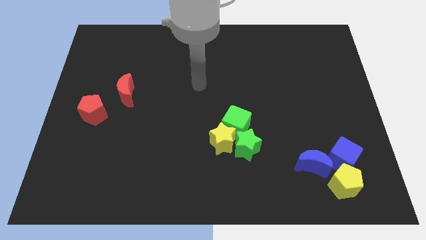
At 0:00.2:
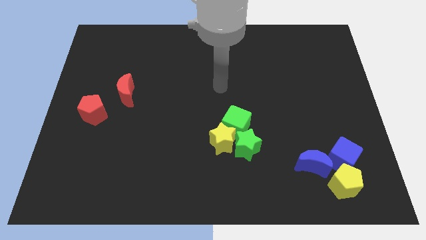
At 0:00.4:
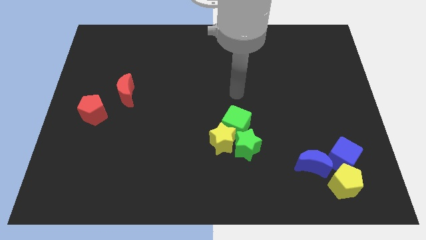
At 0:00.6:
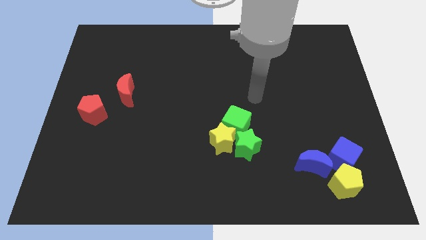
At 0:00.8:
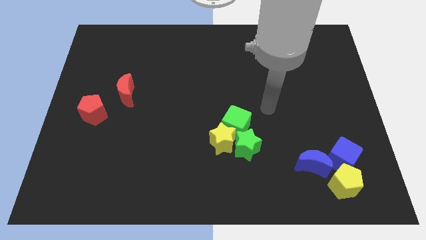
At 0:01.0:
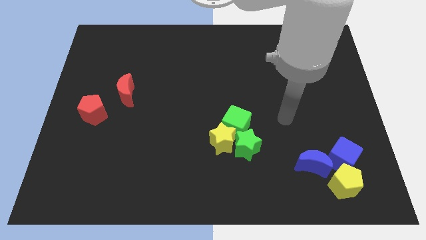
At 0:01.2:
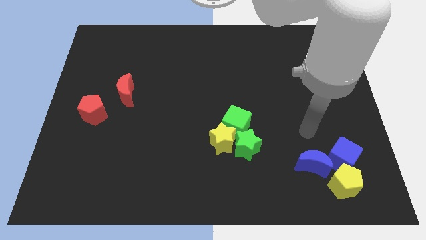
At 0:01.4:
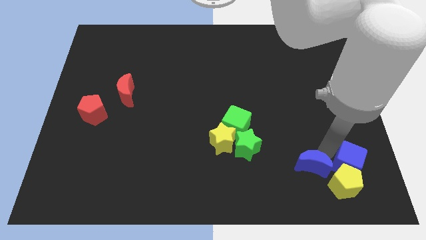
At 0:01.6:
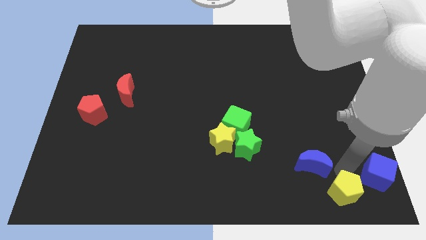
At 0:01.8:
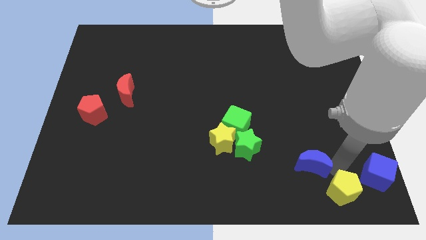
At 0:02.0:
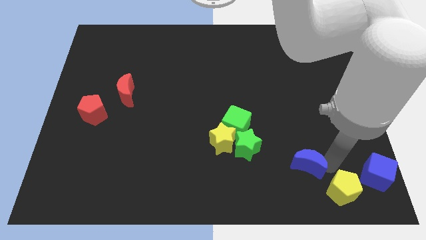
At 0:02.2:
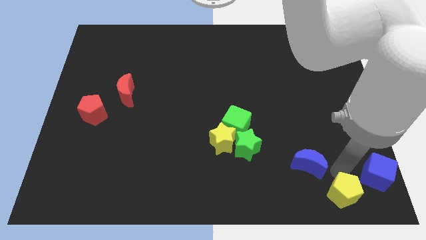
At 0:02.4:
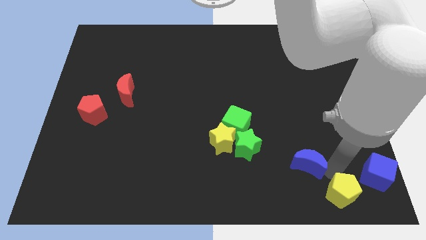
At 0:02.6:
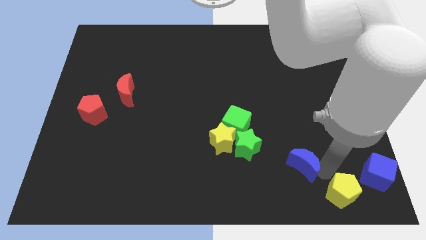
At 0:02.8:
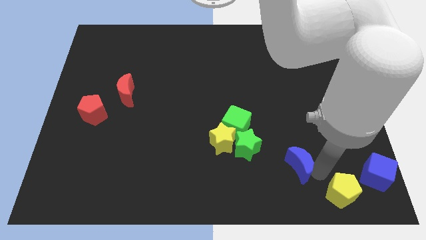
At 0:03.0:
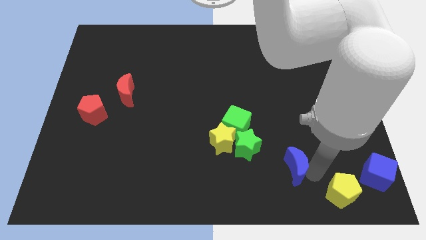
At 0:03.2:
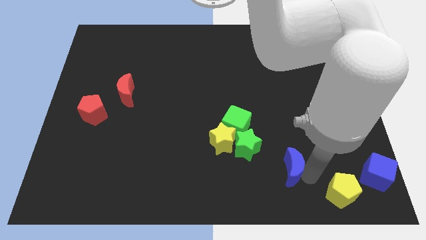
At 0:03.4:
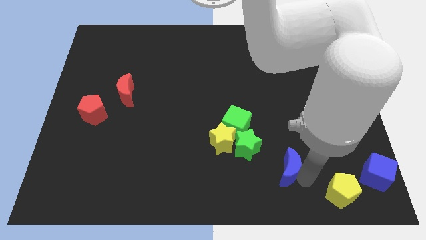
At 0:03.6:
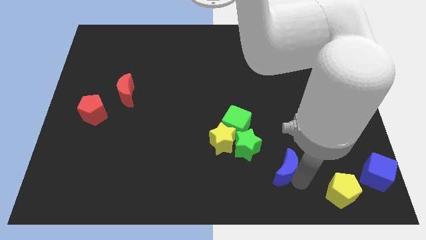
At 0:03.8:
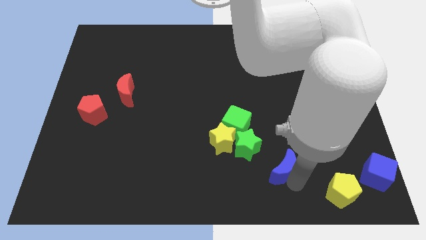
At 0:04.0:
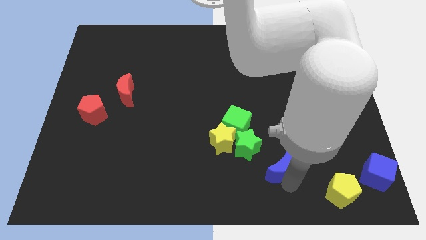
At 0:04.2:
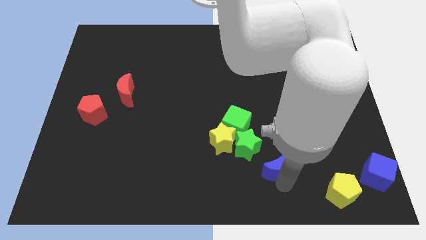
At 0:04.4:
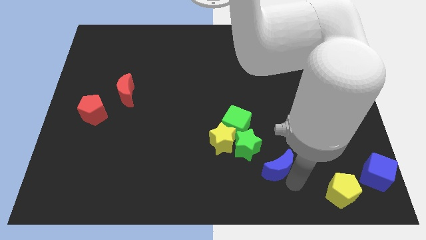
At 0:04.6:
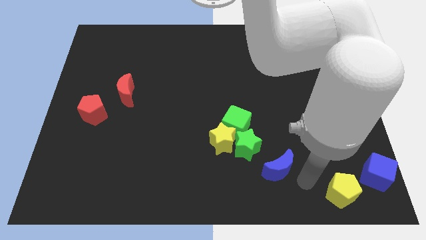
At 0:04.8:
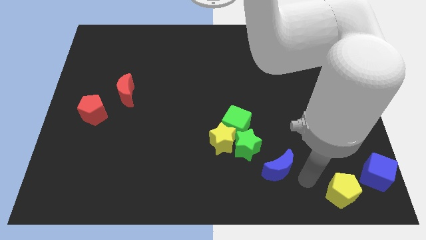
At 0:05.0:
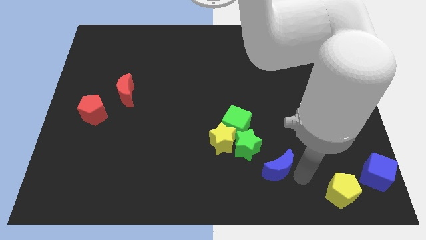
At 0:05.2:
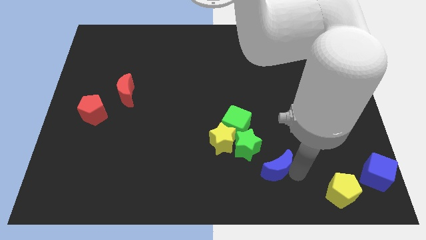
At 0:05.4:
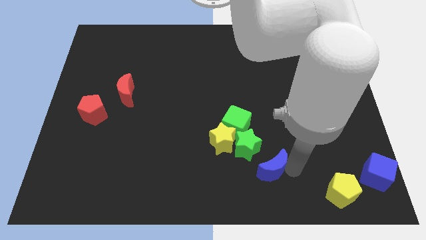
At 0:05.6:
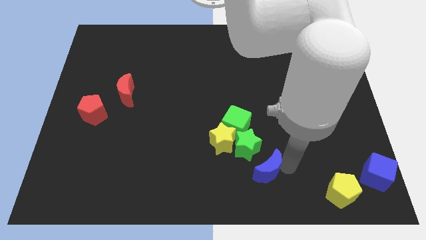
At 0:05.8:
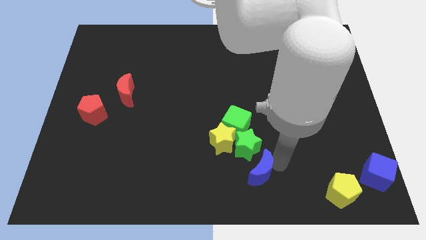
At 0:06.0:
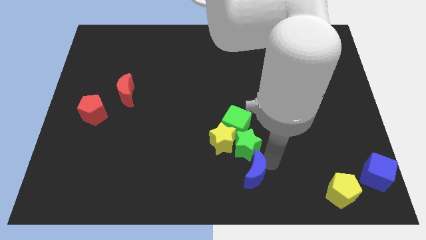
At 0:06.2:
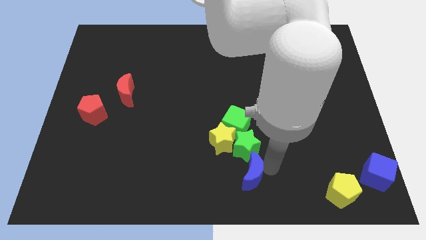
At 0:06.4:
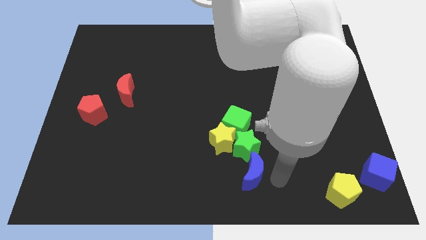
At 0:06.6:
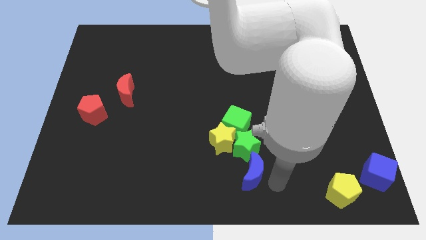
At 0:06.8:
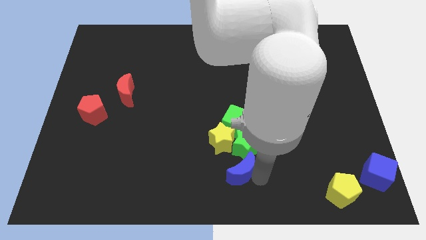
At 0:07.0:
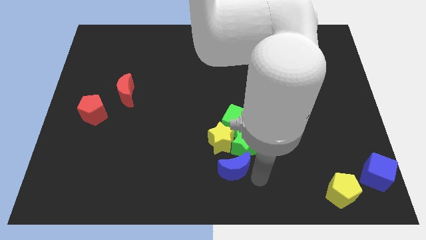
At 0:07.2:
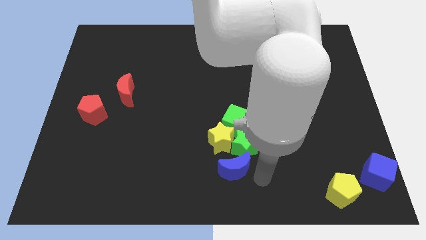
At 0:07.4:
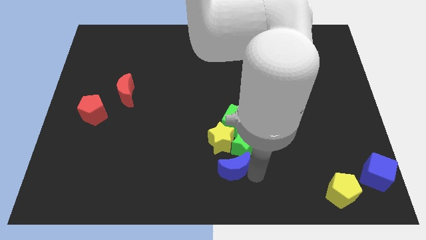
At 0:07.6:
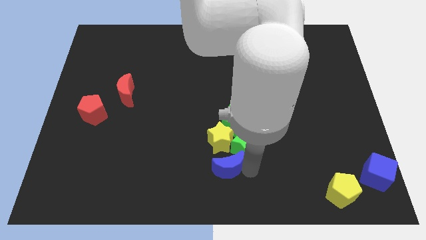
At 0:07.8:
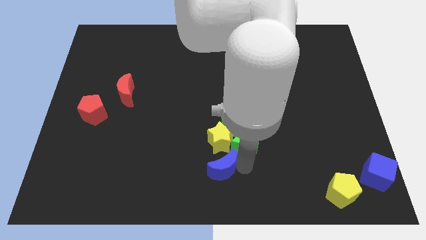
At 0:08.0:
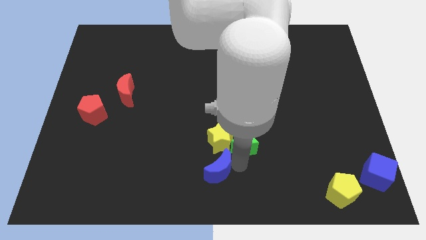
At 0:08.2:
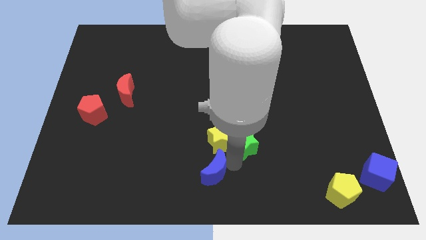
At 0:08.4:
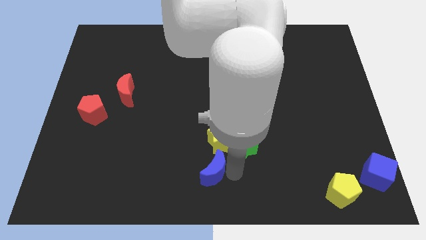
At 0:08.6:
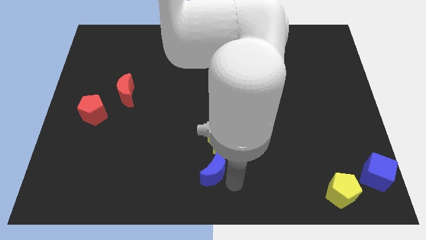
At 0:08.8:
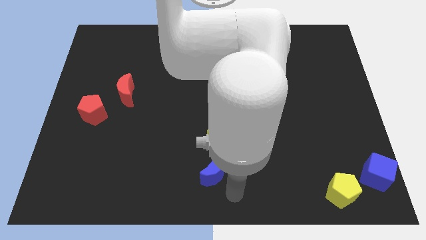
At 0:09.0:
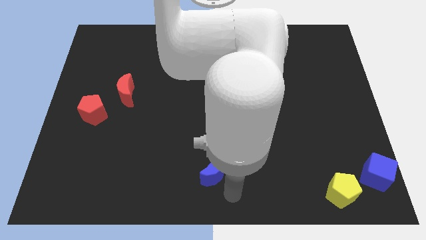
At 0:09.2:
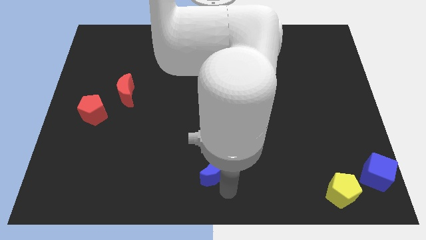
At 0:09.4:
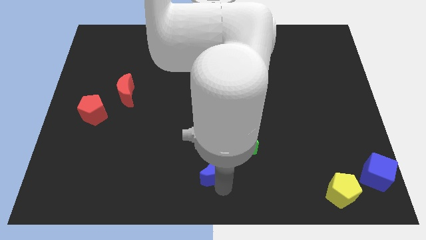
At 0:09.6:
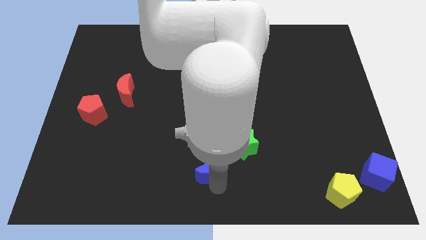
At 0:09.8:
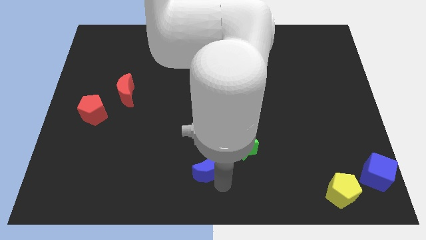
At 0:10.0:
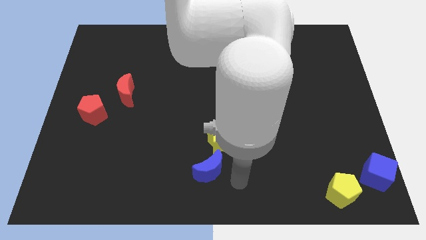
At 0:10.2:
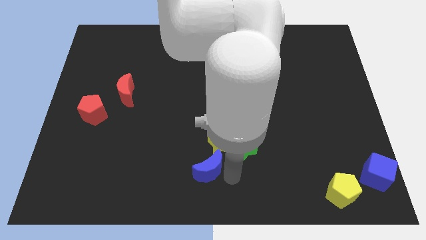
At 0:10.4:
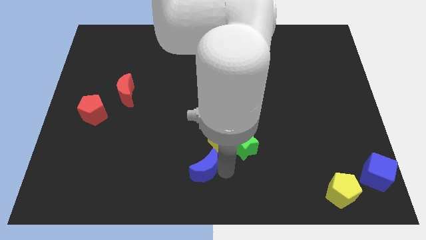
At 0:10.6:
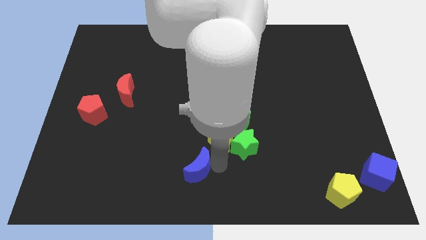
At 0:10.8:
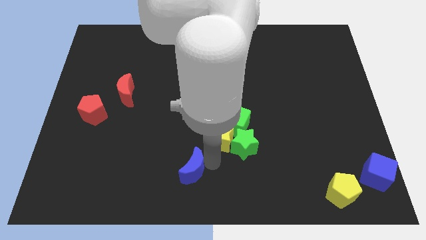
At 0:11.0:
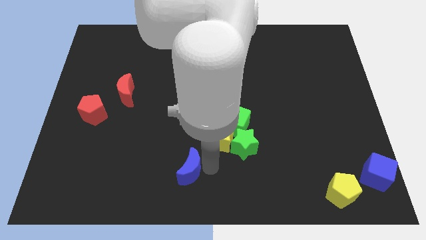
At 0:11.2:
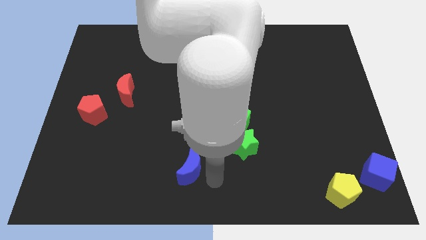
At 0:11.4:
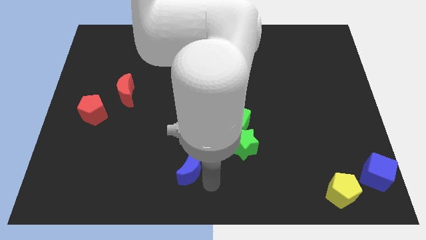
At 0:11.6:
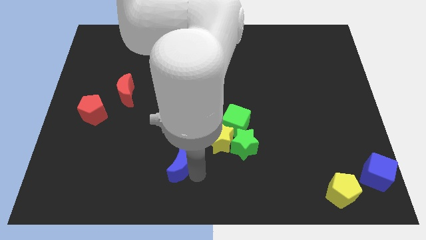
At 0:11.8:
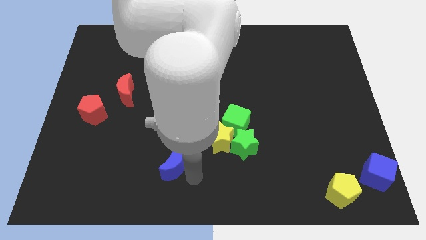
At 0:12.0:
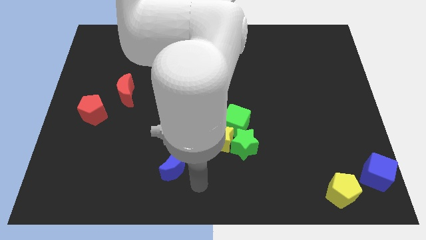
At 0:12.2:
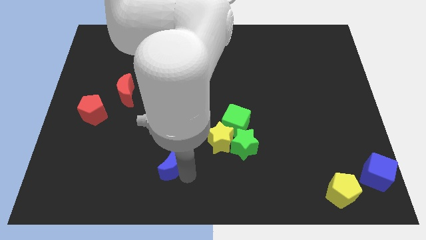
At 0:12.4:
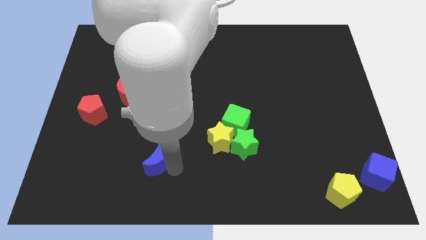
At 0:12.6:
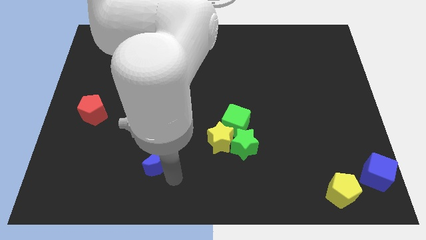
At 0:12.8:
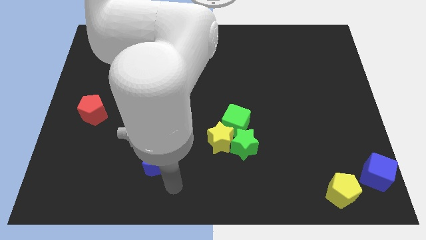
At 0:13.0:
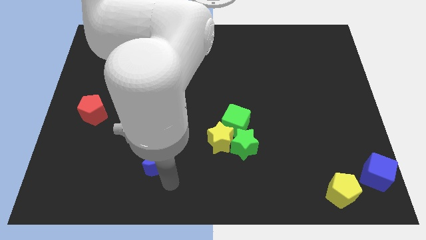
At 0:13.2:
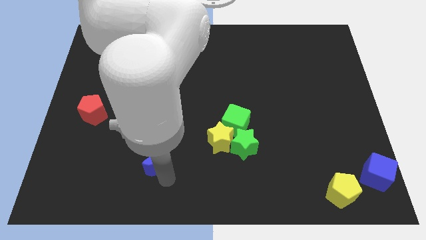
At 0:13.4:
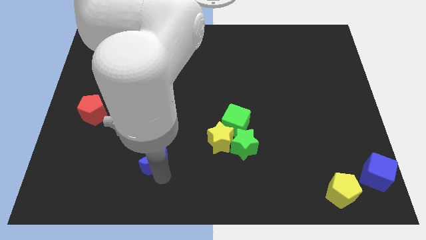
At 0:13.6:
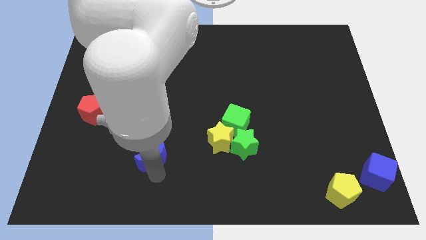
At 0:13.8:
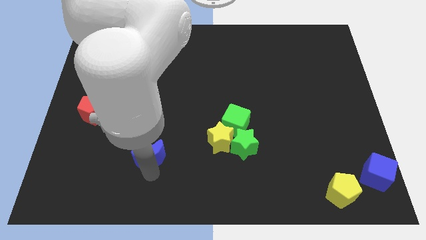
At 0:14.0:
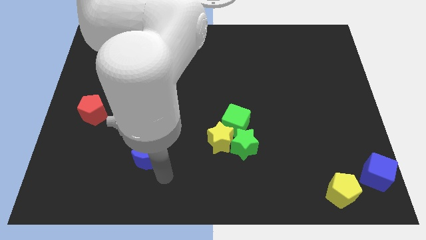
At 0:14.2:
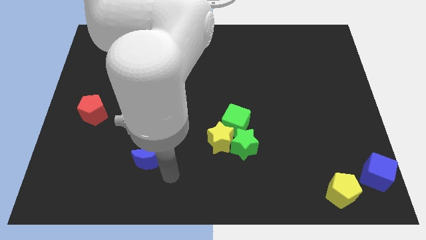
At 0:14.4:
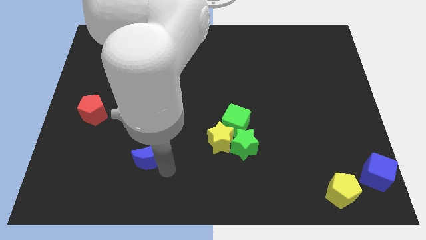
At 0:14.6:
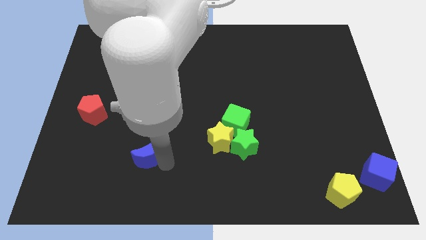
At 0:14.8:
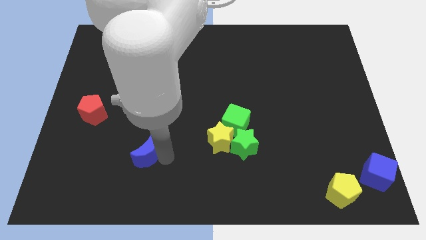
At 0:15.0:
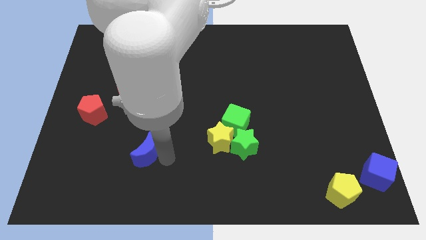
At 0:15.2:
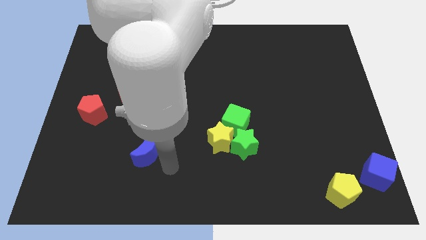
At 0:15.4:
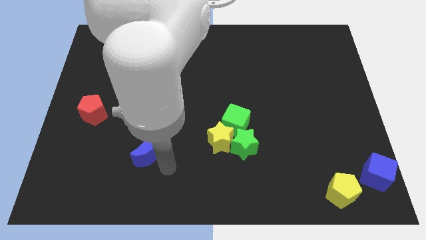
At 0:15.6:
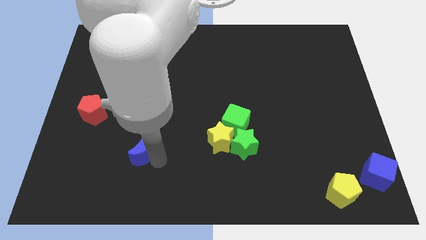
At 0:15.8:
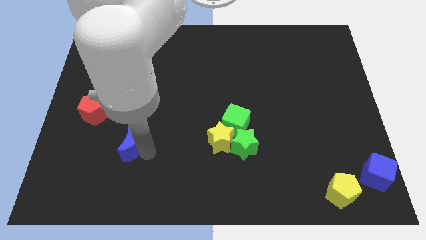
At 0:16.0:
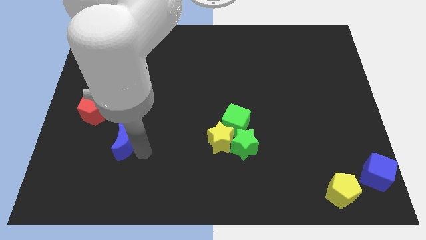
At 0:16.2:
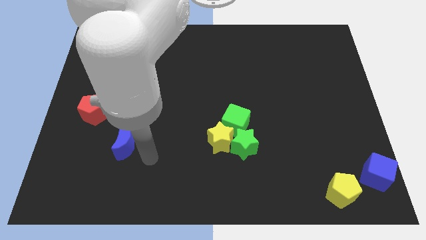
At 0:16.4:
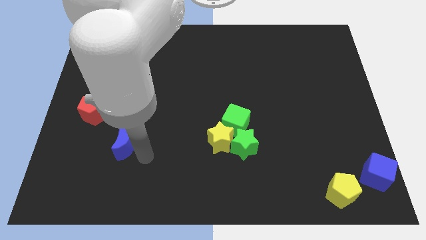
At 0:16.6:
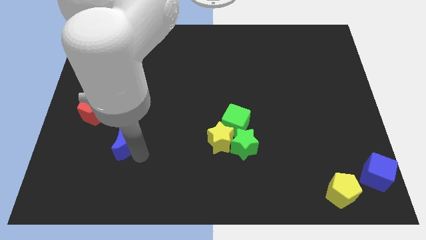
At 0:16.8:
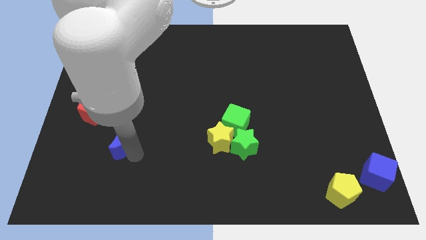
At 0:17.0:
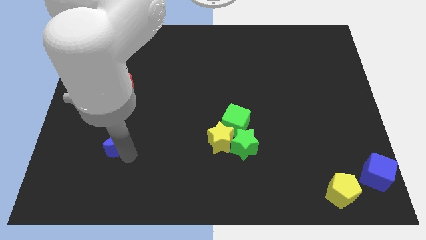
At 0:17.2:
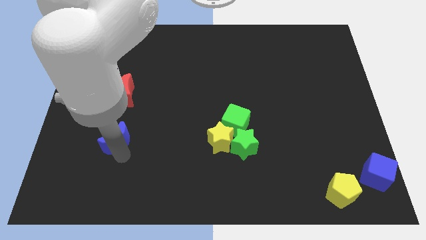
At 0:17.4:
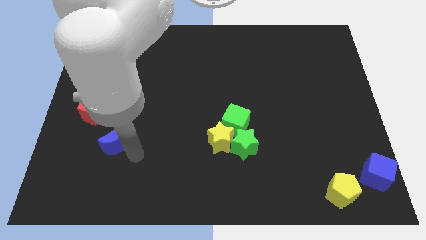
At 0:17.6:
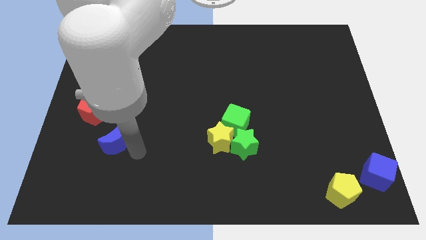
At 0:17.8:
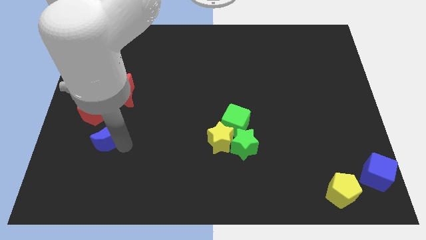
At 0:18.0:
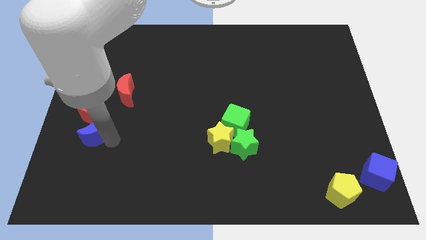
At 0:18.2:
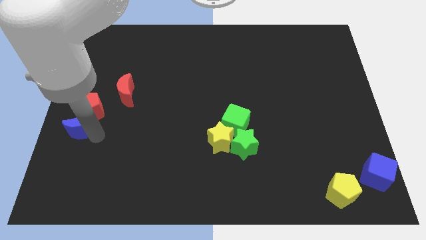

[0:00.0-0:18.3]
push the blue moon to the left side of the board
